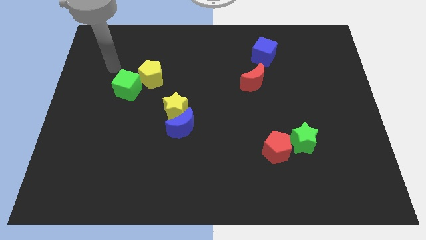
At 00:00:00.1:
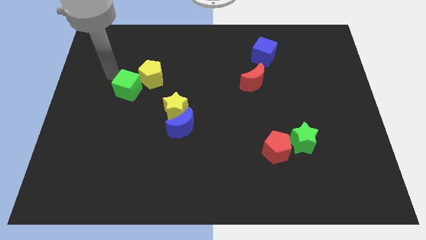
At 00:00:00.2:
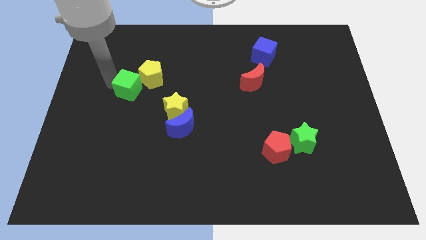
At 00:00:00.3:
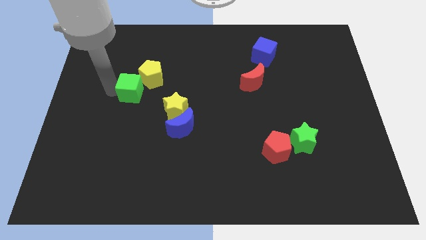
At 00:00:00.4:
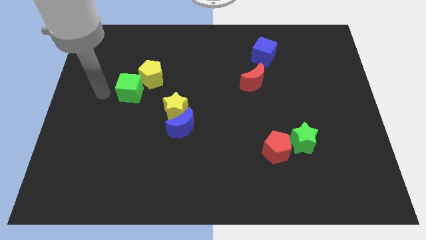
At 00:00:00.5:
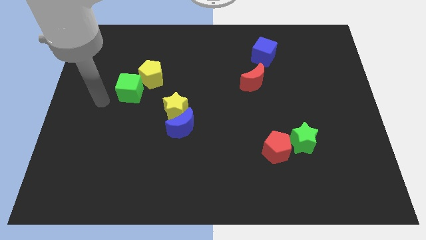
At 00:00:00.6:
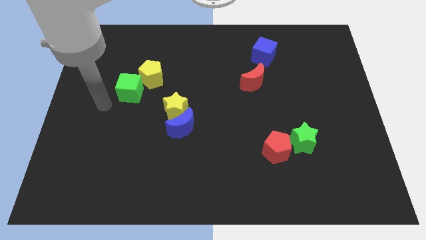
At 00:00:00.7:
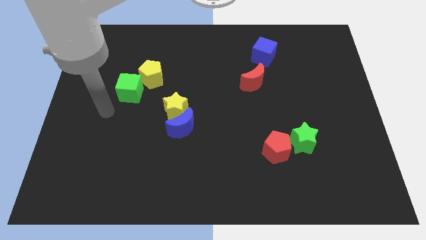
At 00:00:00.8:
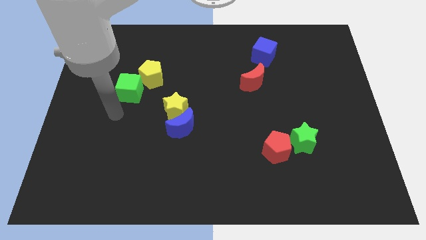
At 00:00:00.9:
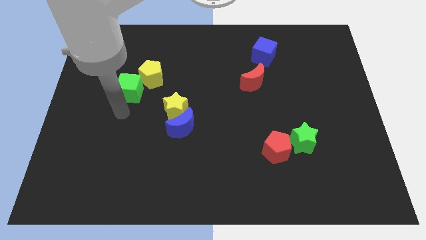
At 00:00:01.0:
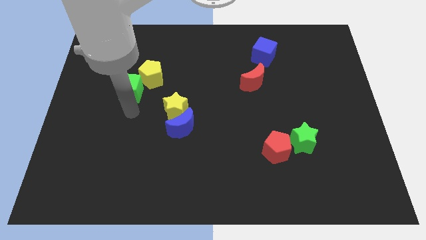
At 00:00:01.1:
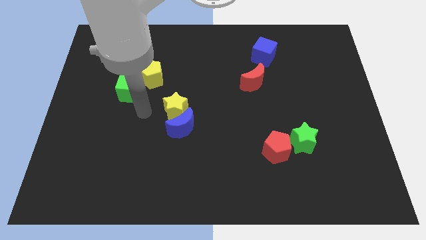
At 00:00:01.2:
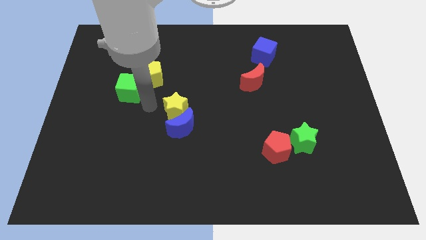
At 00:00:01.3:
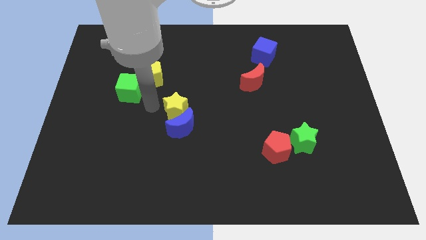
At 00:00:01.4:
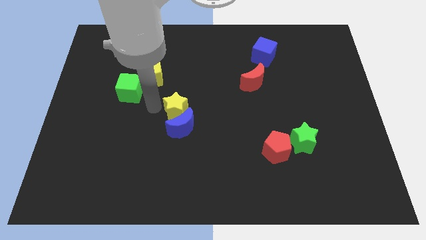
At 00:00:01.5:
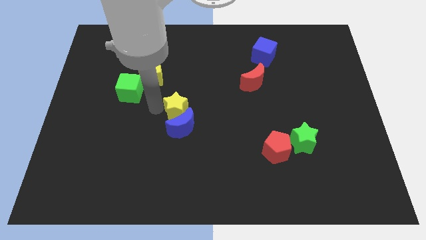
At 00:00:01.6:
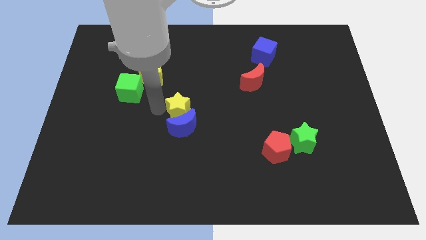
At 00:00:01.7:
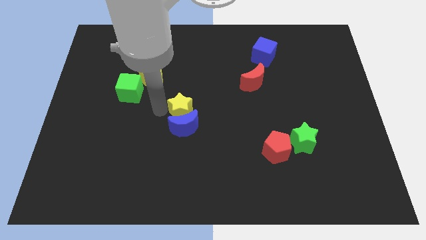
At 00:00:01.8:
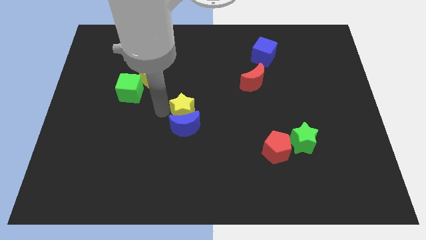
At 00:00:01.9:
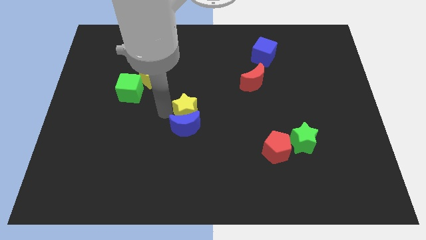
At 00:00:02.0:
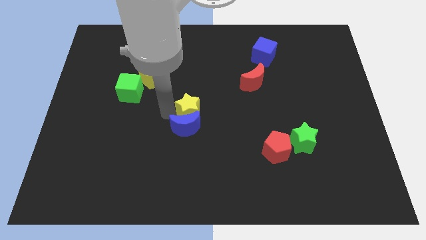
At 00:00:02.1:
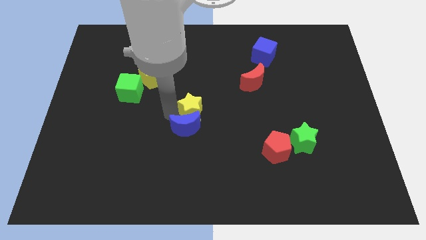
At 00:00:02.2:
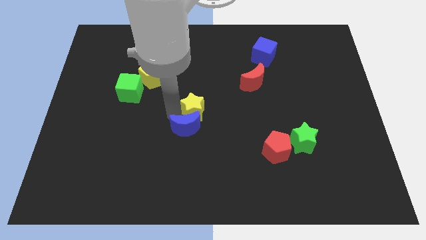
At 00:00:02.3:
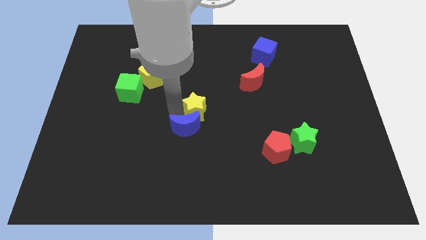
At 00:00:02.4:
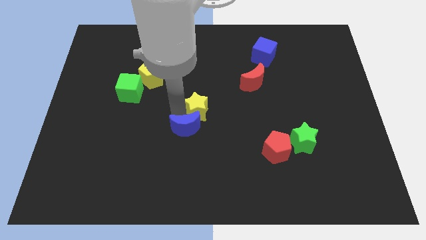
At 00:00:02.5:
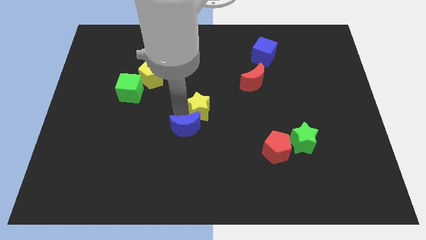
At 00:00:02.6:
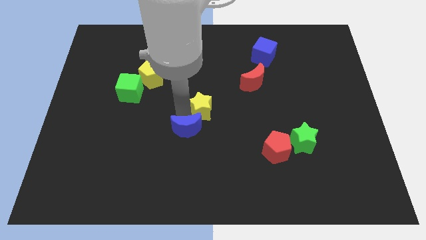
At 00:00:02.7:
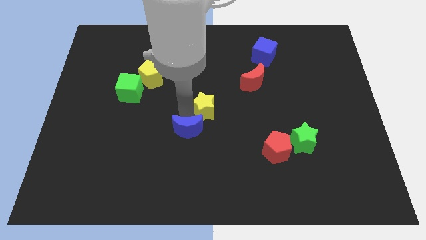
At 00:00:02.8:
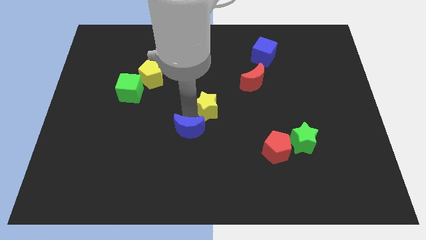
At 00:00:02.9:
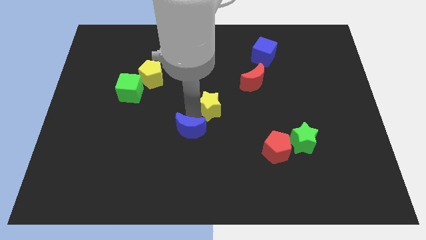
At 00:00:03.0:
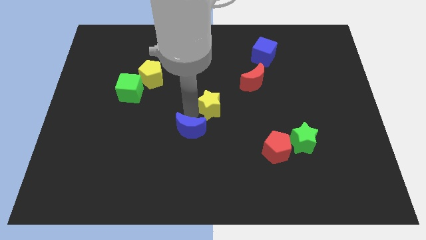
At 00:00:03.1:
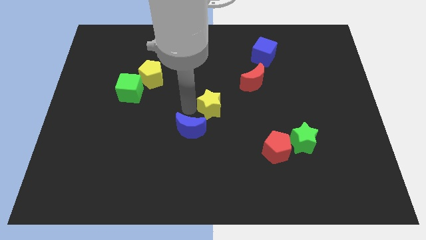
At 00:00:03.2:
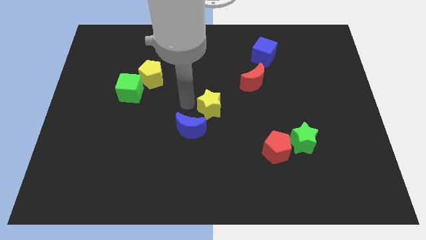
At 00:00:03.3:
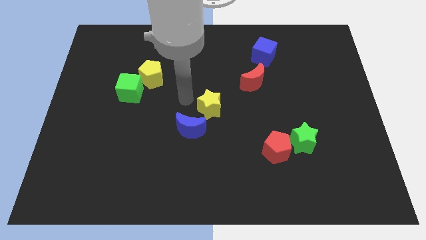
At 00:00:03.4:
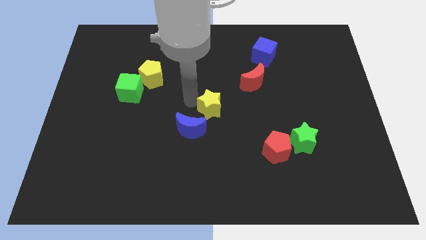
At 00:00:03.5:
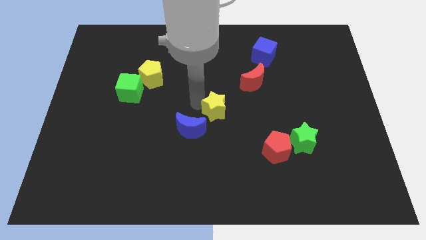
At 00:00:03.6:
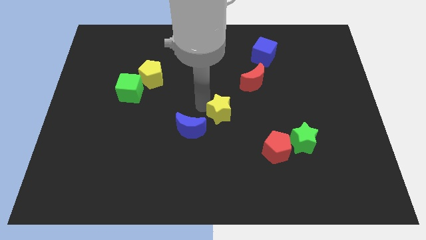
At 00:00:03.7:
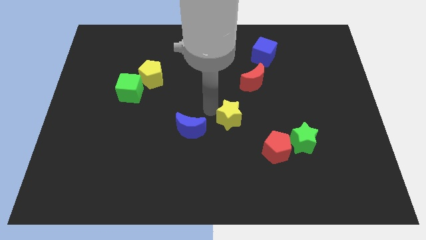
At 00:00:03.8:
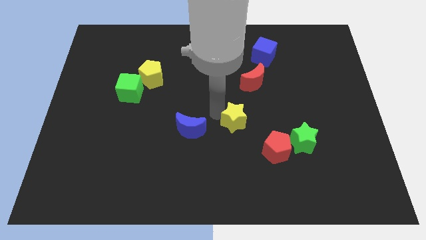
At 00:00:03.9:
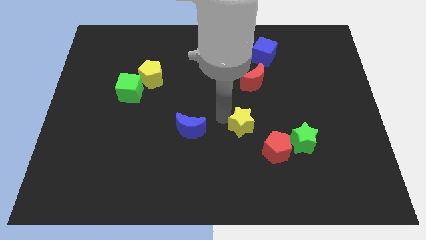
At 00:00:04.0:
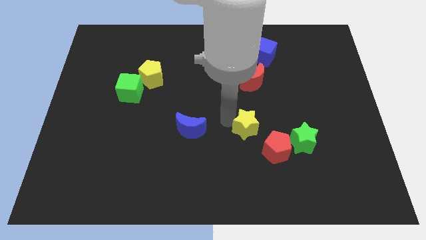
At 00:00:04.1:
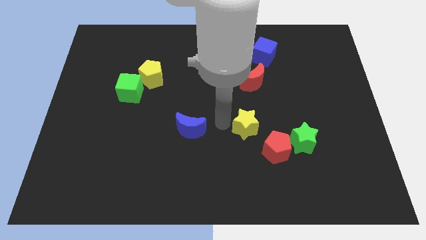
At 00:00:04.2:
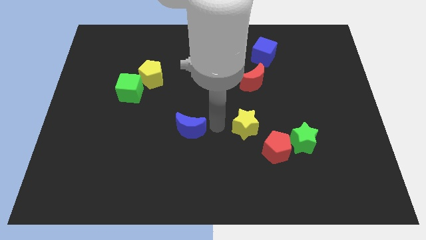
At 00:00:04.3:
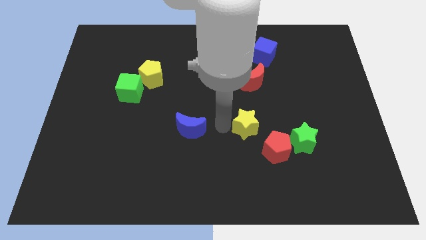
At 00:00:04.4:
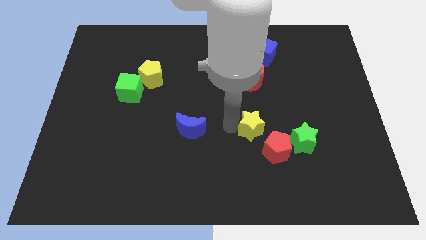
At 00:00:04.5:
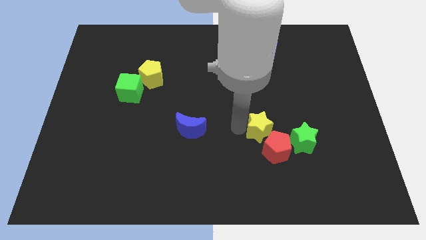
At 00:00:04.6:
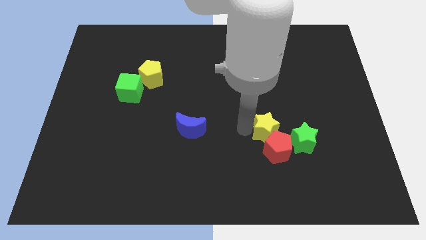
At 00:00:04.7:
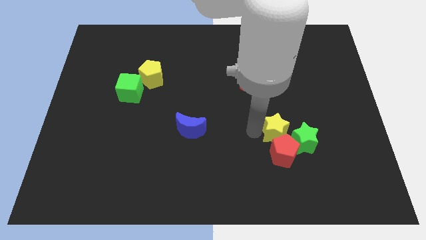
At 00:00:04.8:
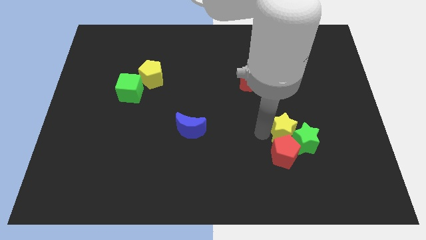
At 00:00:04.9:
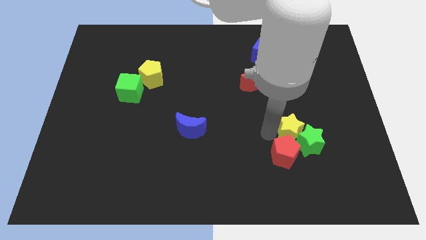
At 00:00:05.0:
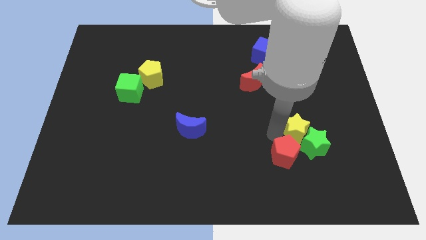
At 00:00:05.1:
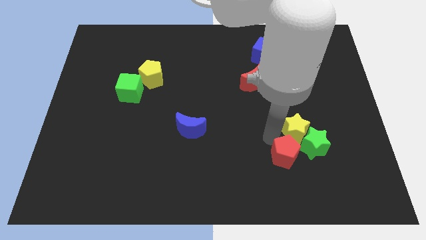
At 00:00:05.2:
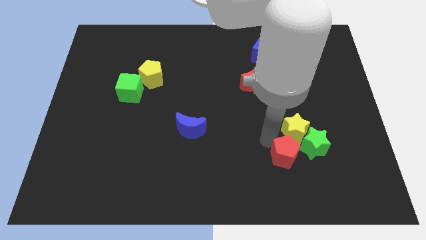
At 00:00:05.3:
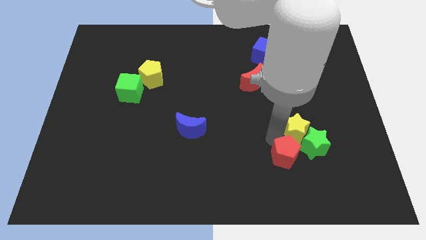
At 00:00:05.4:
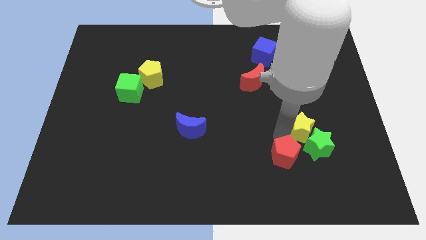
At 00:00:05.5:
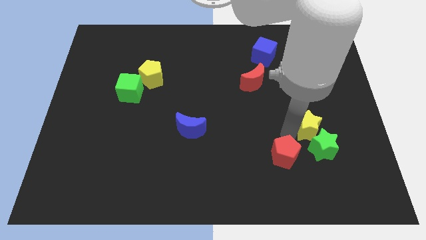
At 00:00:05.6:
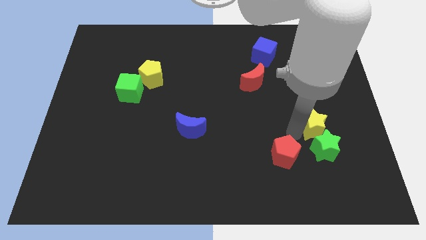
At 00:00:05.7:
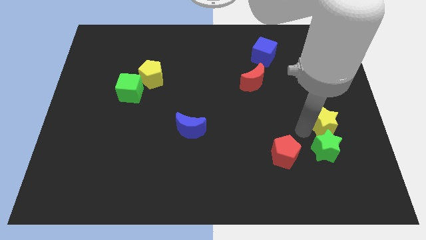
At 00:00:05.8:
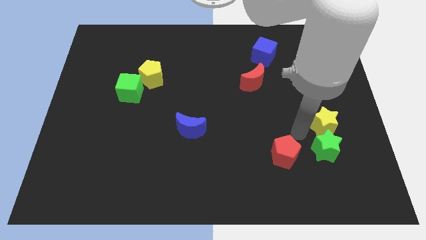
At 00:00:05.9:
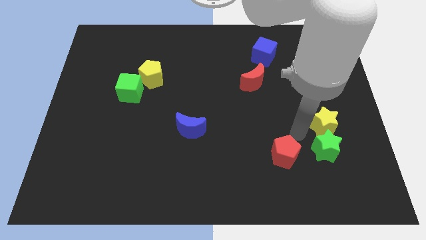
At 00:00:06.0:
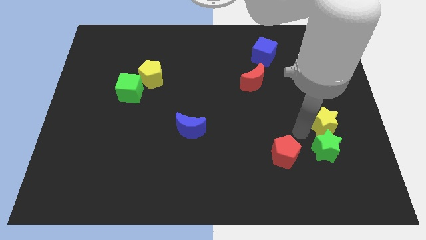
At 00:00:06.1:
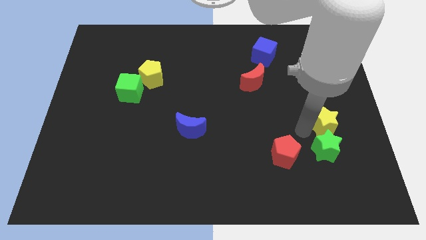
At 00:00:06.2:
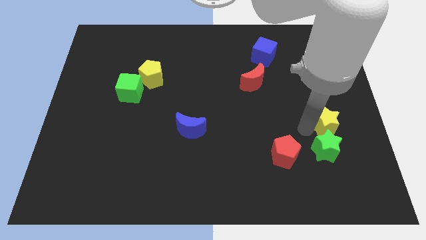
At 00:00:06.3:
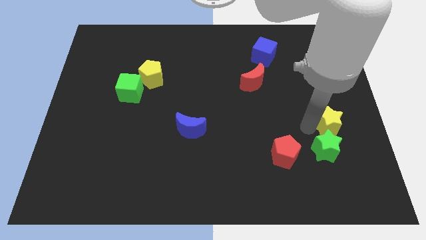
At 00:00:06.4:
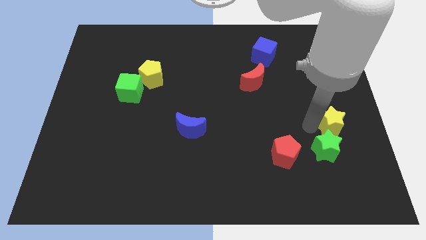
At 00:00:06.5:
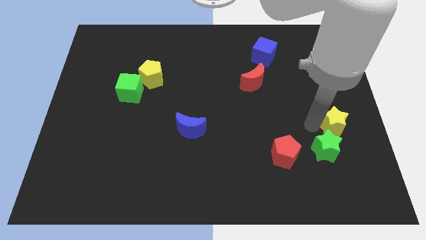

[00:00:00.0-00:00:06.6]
push the yellow star to the center right
